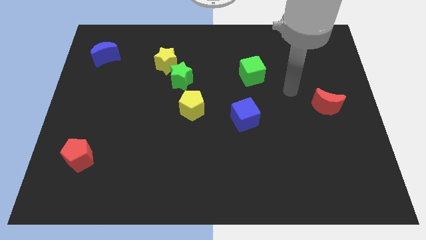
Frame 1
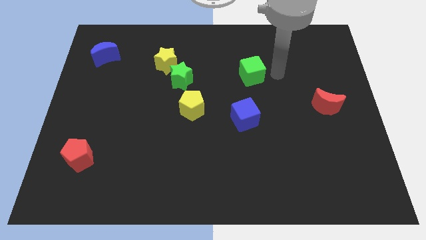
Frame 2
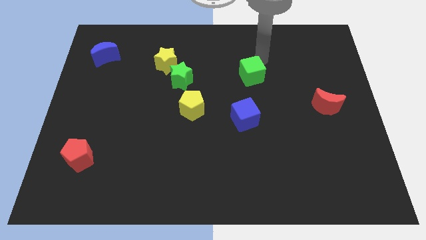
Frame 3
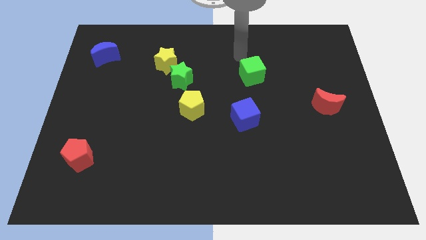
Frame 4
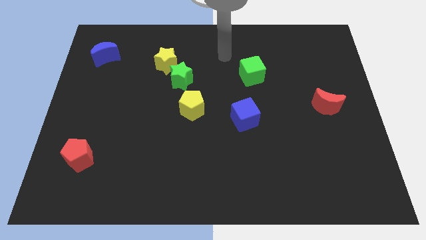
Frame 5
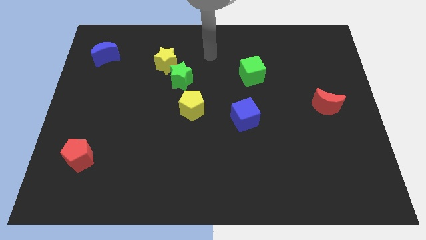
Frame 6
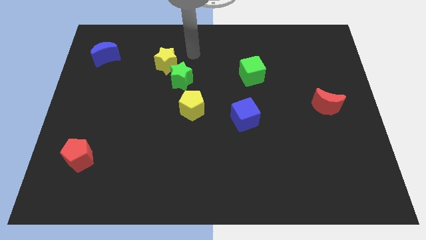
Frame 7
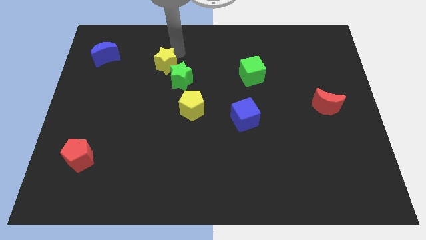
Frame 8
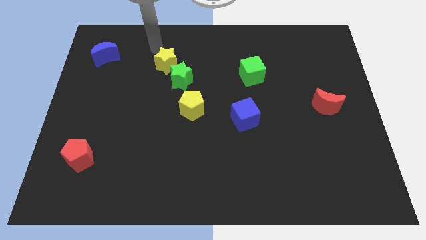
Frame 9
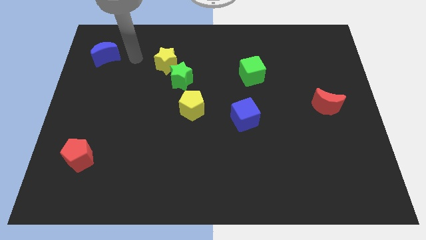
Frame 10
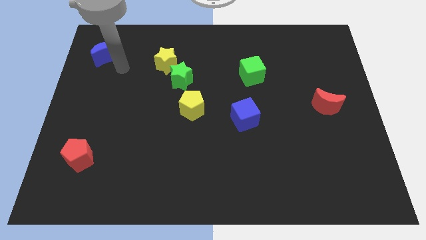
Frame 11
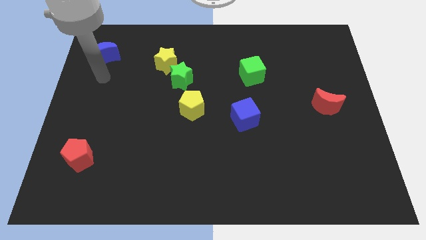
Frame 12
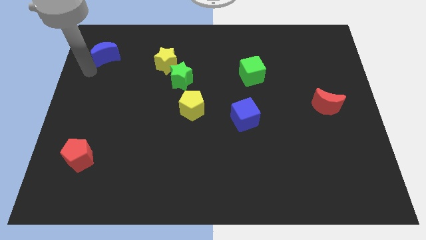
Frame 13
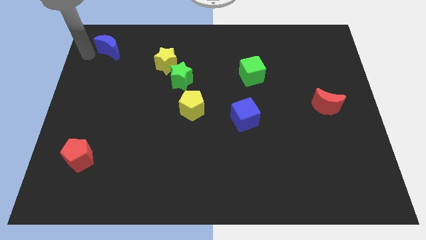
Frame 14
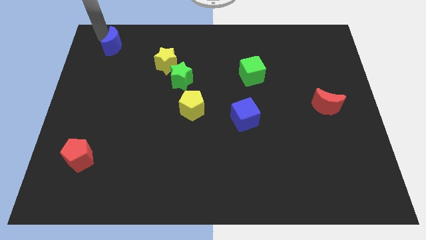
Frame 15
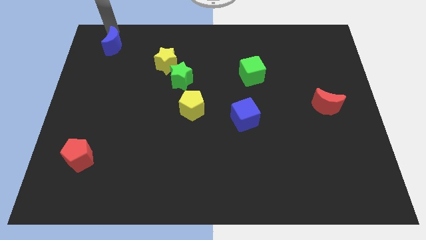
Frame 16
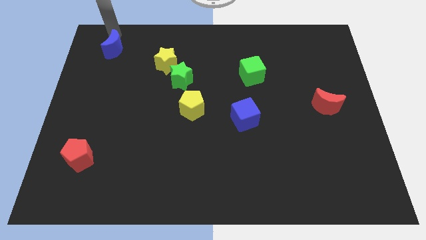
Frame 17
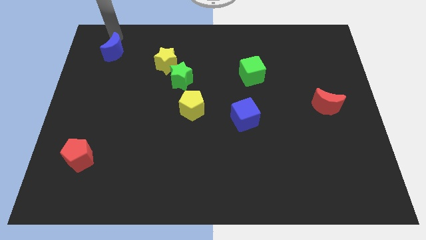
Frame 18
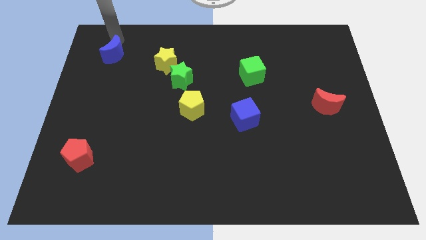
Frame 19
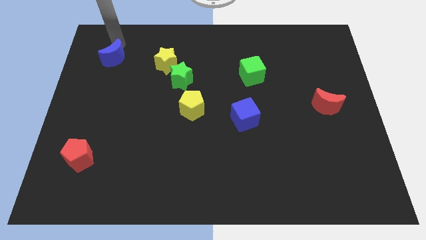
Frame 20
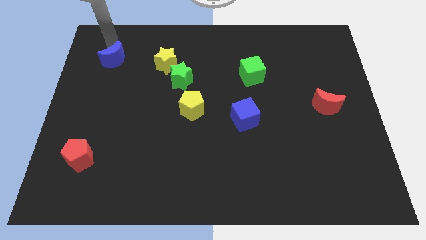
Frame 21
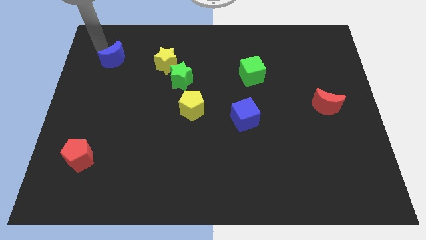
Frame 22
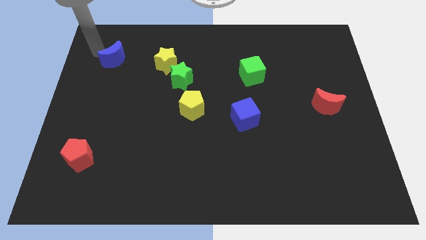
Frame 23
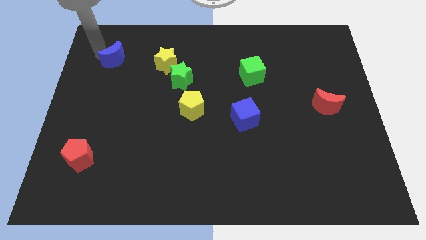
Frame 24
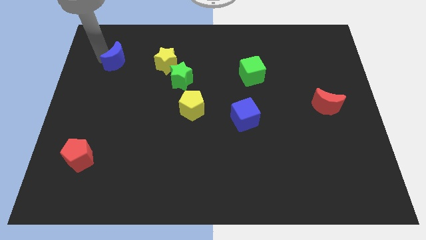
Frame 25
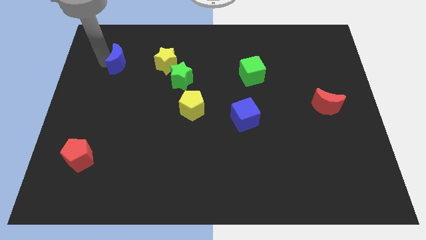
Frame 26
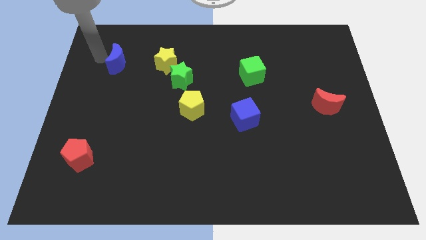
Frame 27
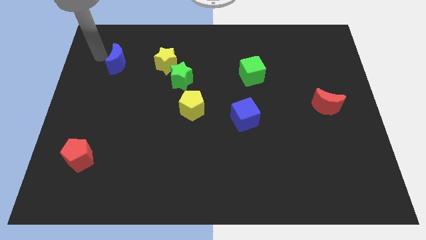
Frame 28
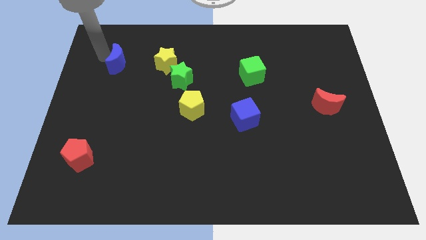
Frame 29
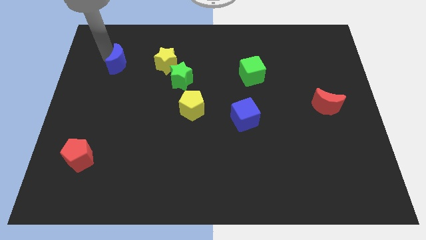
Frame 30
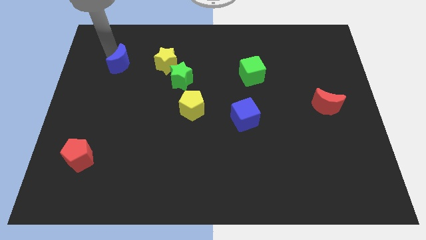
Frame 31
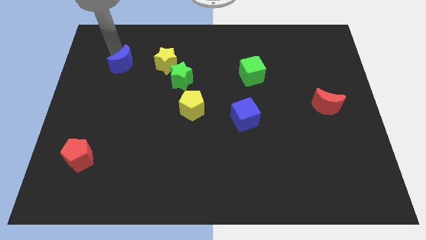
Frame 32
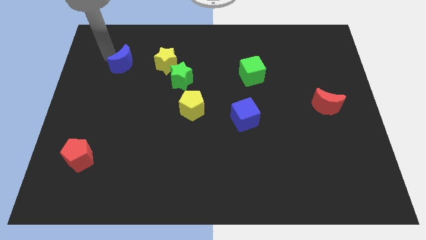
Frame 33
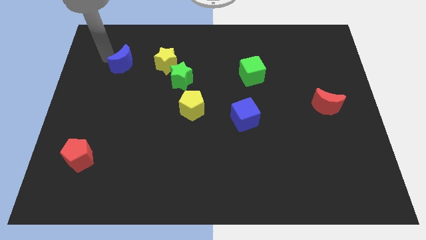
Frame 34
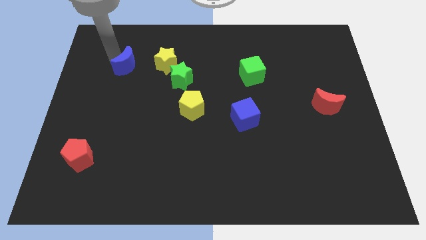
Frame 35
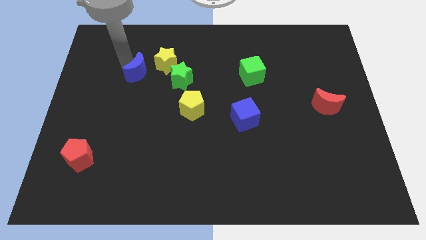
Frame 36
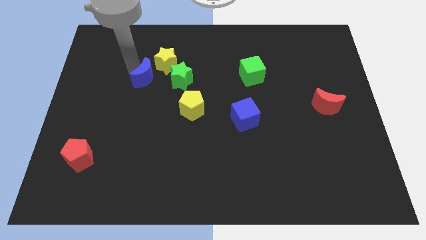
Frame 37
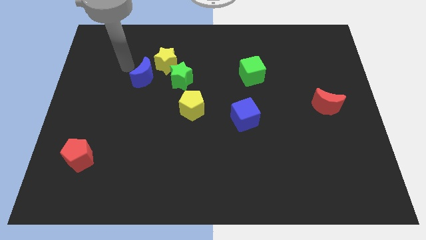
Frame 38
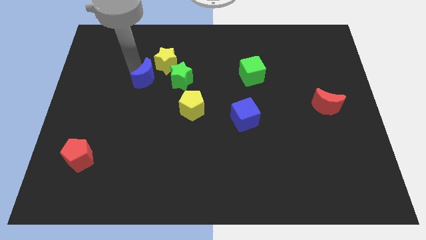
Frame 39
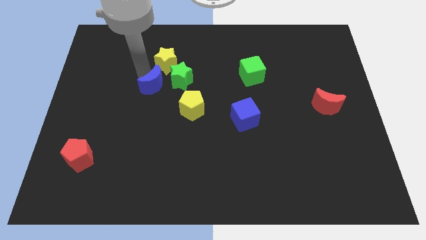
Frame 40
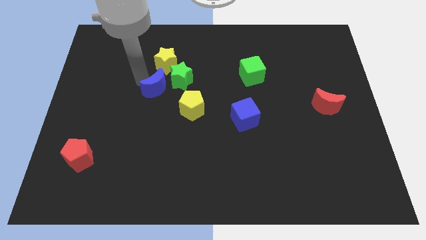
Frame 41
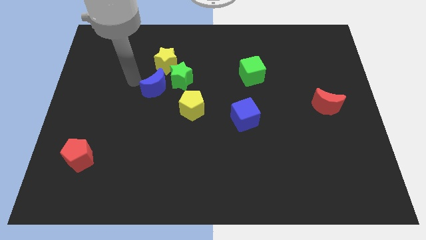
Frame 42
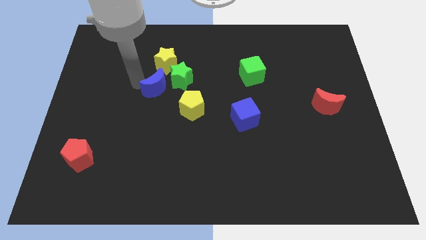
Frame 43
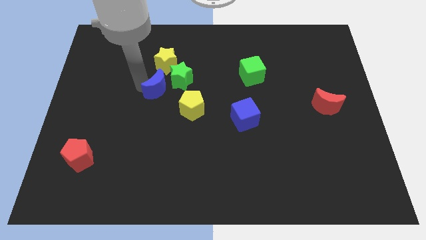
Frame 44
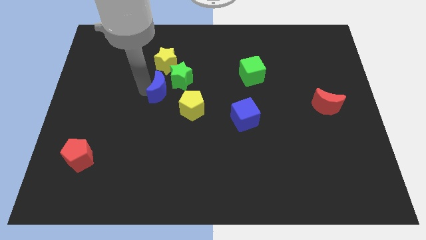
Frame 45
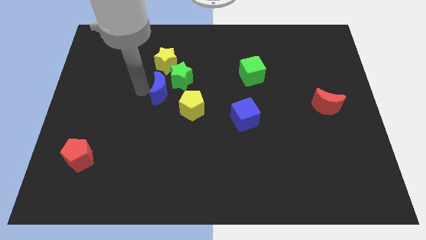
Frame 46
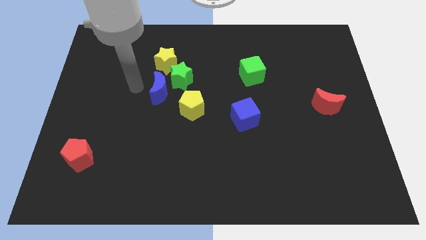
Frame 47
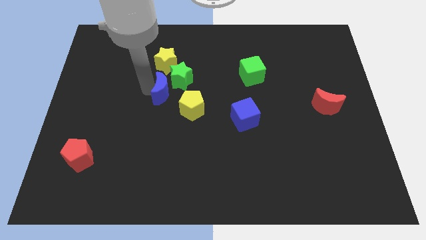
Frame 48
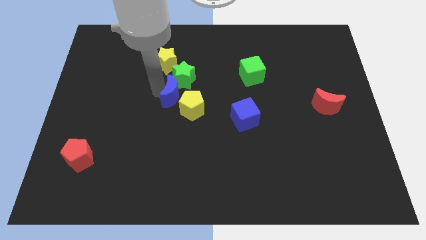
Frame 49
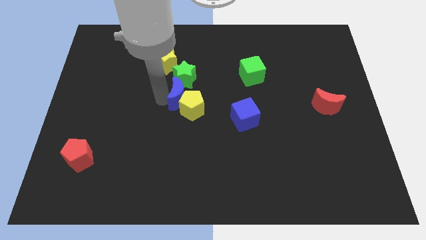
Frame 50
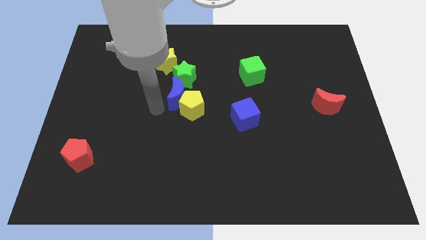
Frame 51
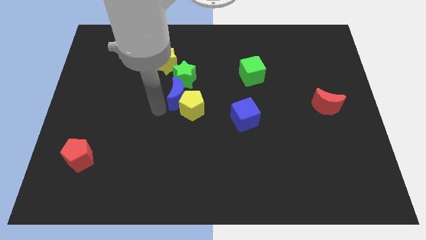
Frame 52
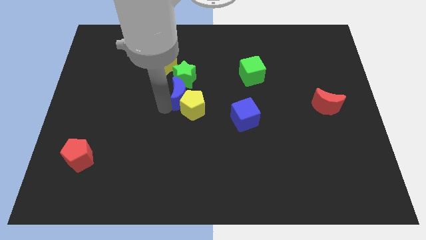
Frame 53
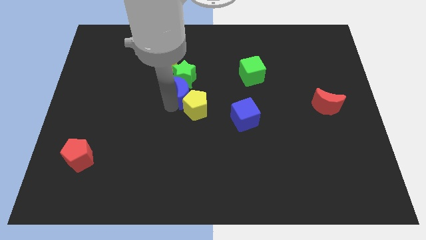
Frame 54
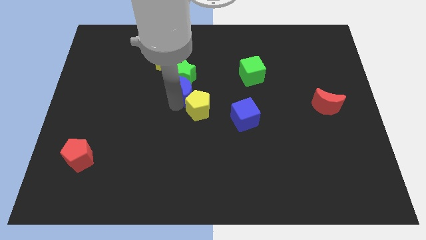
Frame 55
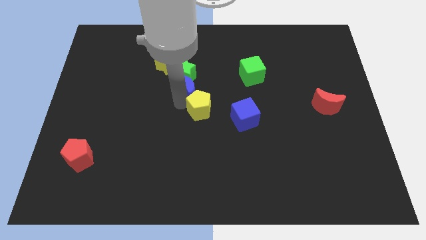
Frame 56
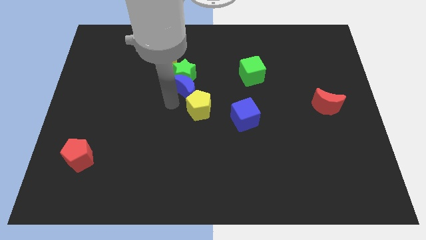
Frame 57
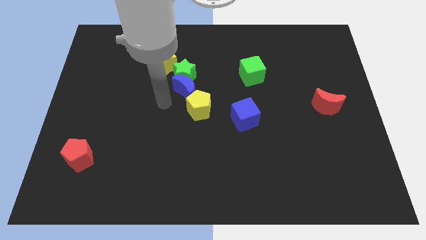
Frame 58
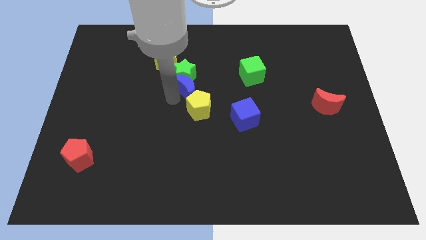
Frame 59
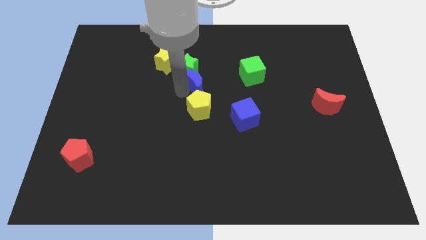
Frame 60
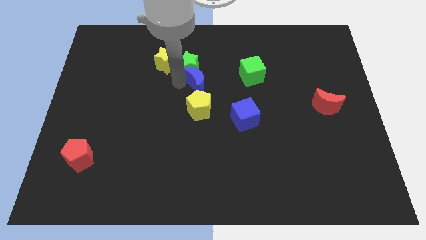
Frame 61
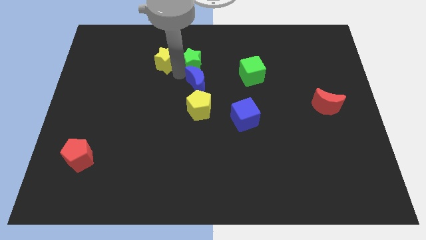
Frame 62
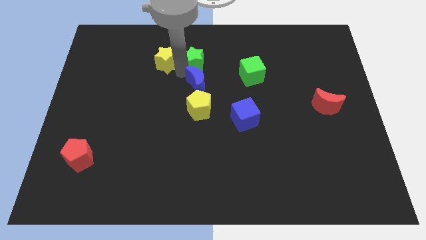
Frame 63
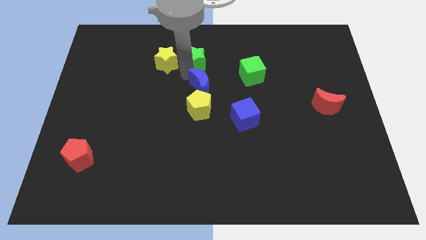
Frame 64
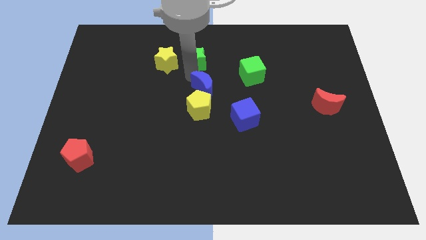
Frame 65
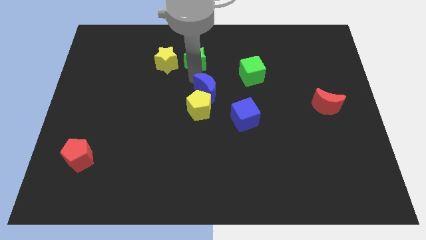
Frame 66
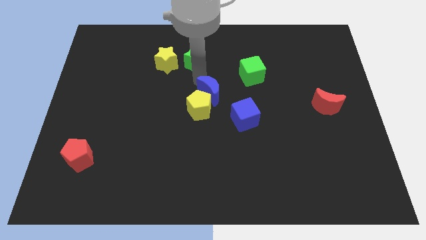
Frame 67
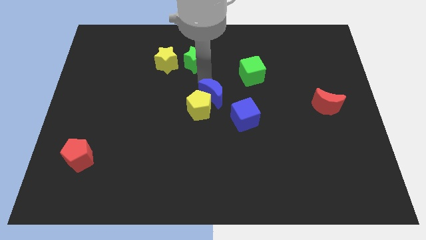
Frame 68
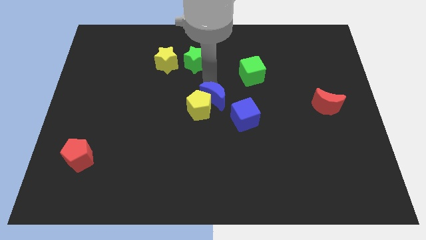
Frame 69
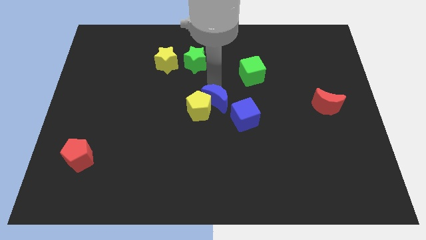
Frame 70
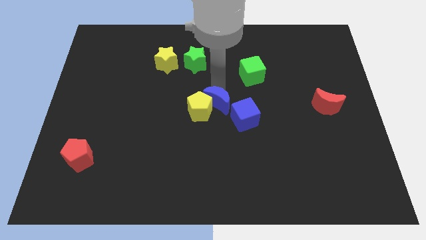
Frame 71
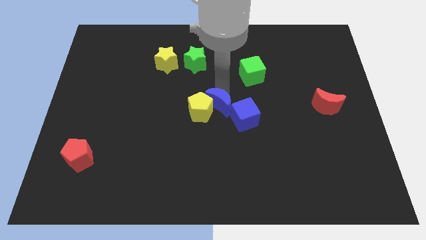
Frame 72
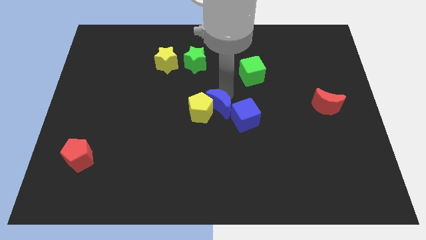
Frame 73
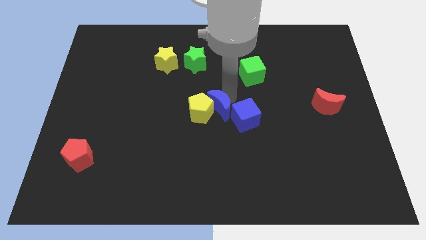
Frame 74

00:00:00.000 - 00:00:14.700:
move the blue moon to the blue cube
